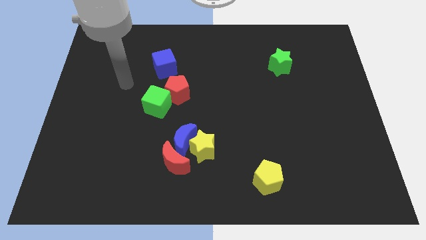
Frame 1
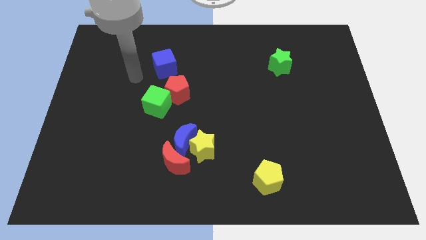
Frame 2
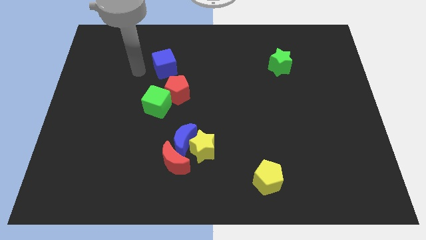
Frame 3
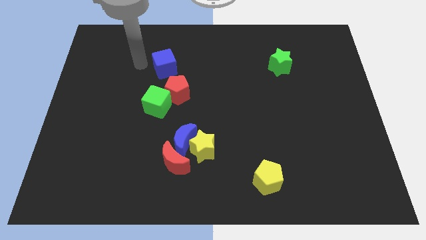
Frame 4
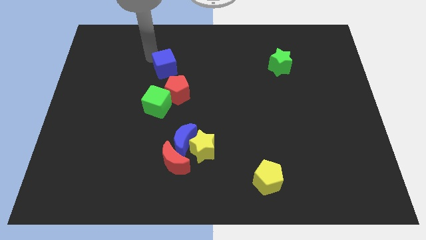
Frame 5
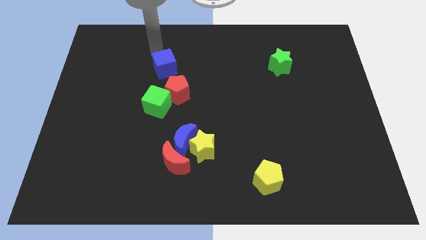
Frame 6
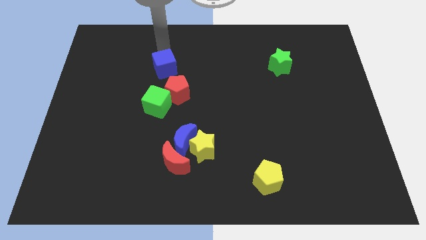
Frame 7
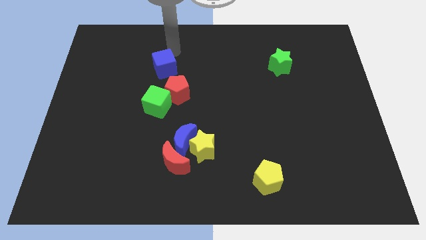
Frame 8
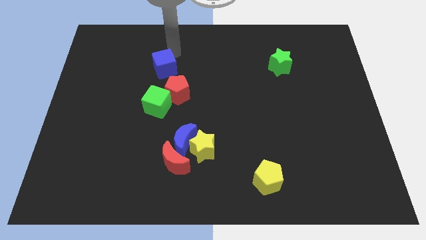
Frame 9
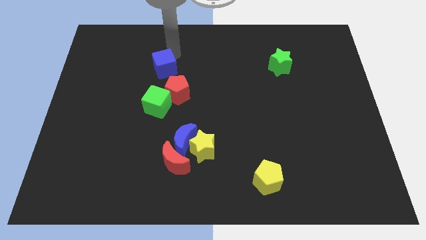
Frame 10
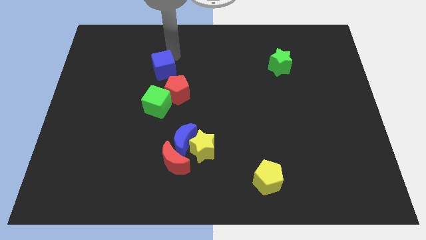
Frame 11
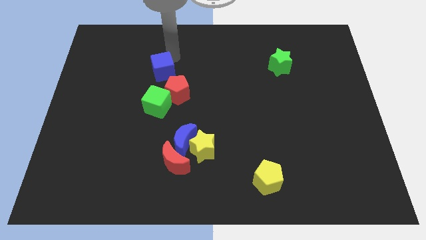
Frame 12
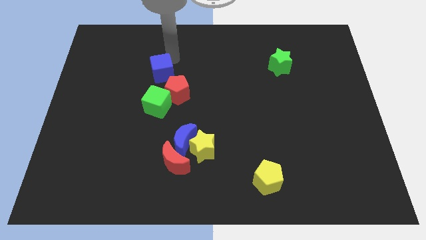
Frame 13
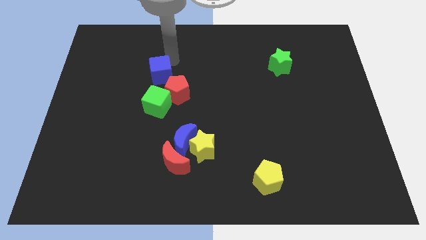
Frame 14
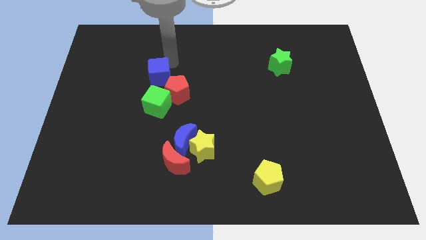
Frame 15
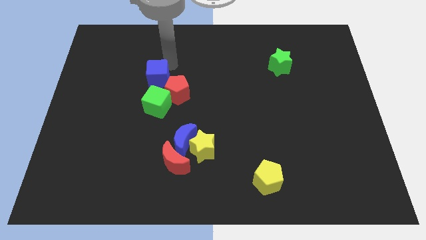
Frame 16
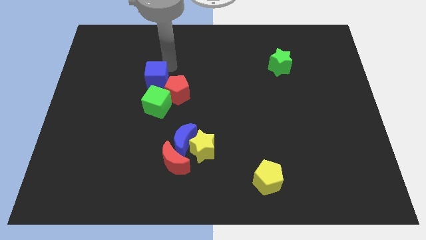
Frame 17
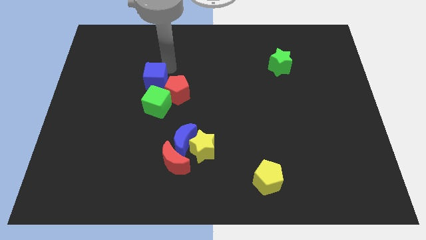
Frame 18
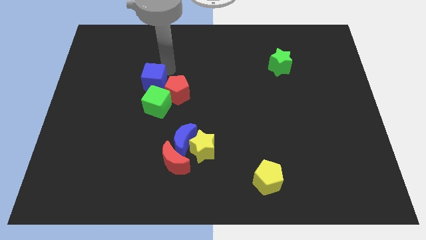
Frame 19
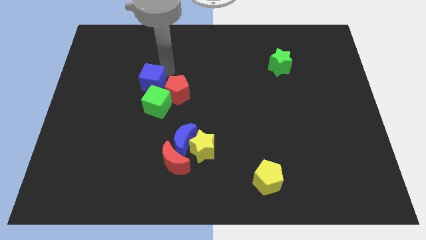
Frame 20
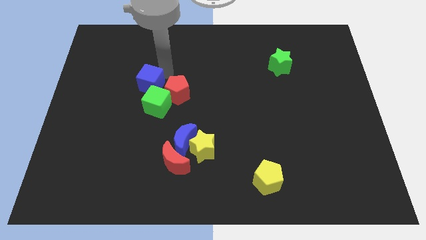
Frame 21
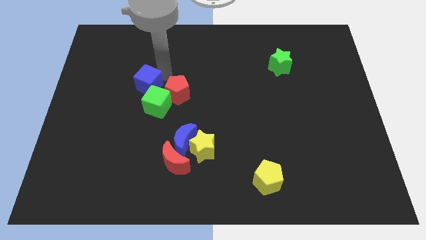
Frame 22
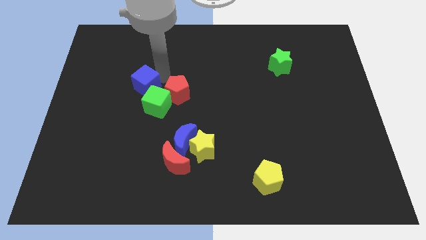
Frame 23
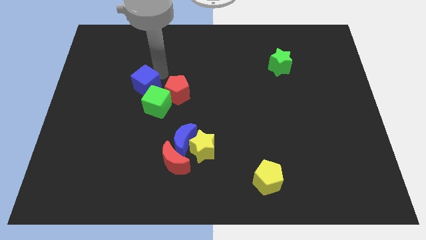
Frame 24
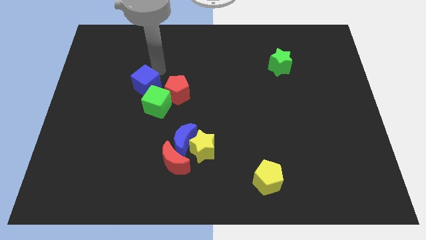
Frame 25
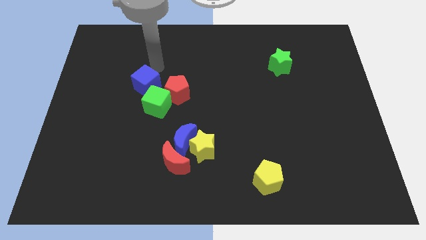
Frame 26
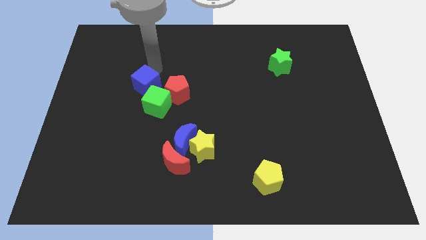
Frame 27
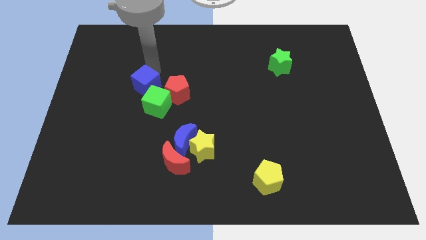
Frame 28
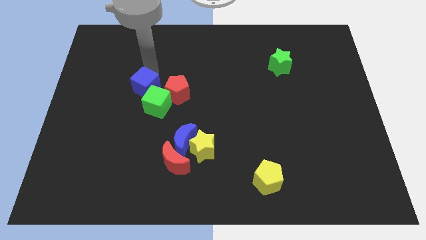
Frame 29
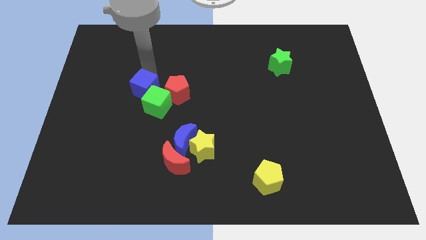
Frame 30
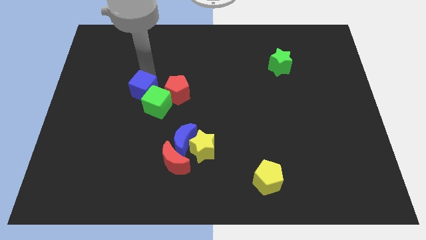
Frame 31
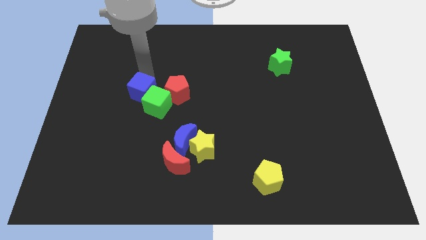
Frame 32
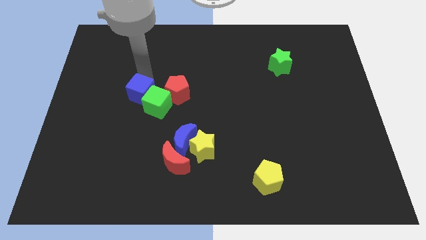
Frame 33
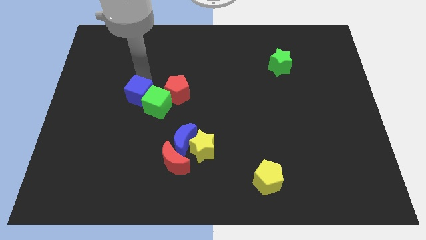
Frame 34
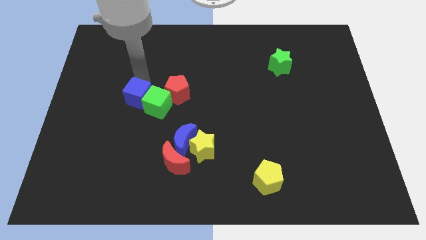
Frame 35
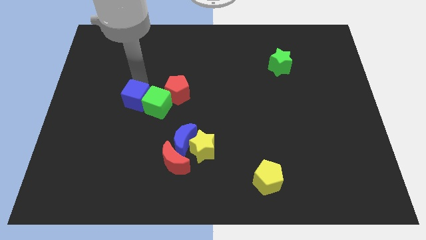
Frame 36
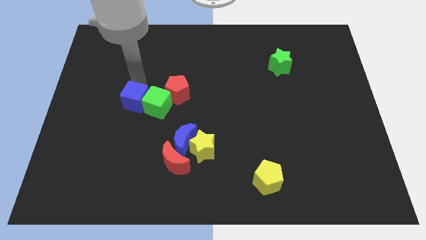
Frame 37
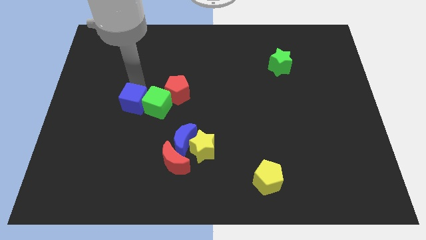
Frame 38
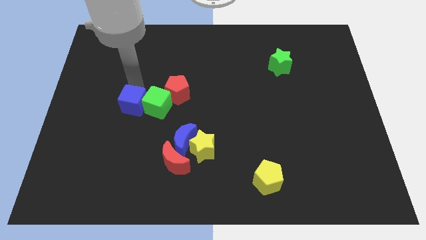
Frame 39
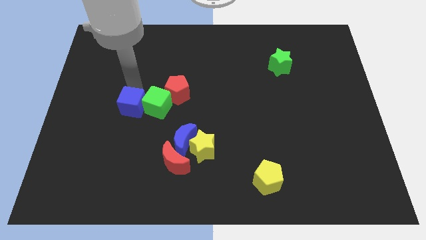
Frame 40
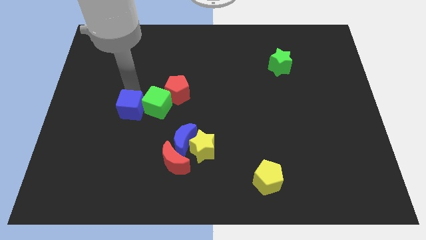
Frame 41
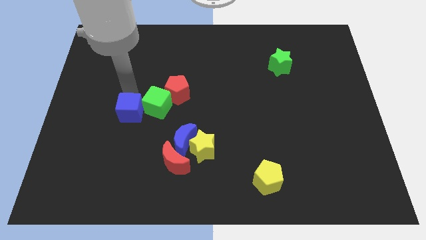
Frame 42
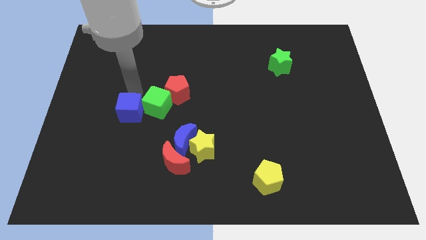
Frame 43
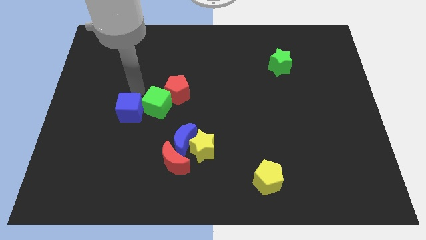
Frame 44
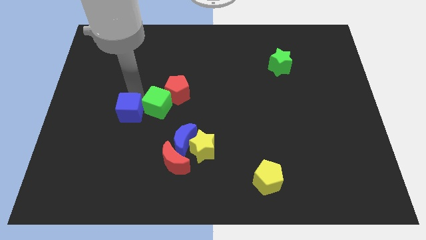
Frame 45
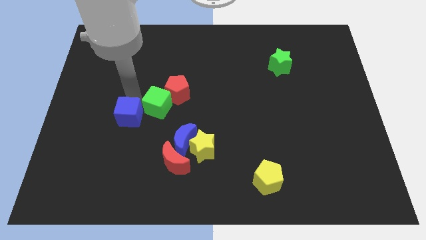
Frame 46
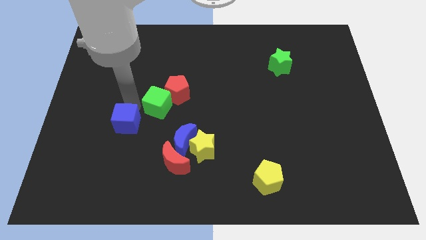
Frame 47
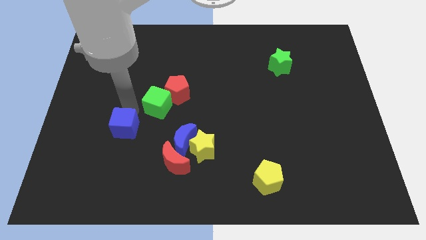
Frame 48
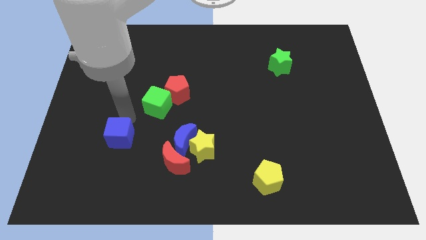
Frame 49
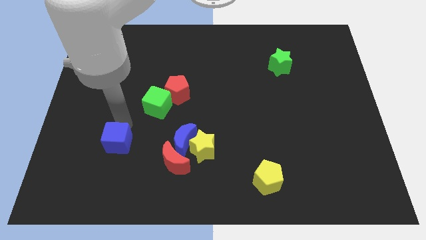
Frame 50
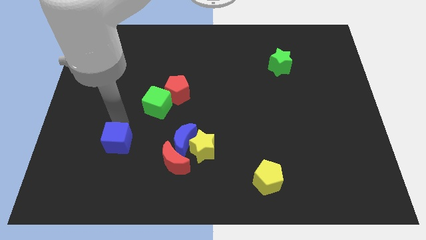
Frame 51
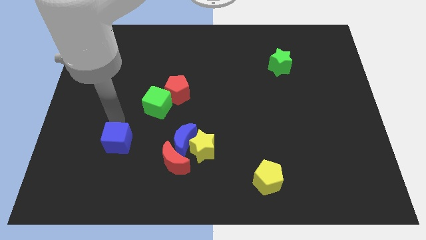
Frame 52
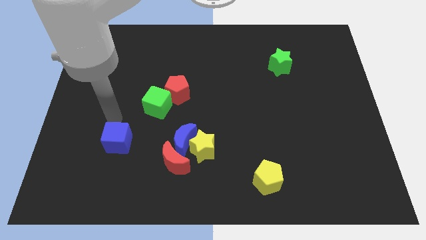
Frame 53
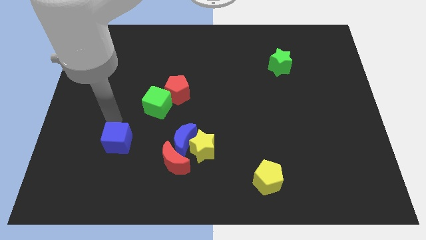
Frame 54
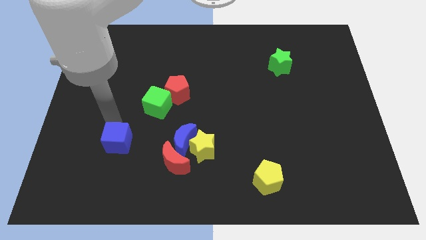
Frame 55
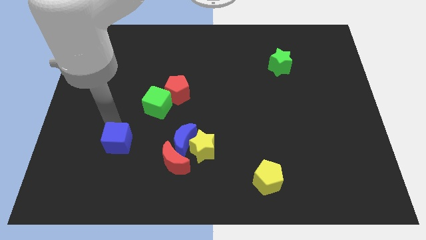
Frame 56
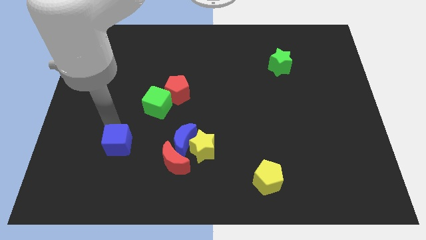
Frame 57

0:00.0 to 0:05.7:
slide the blue cube downwards

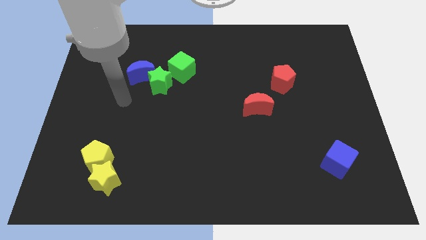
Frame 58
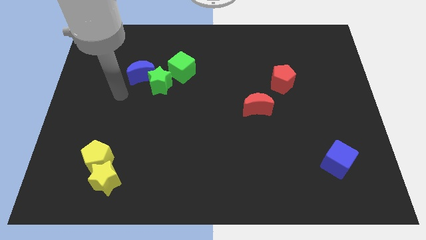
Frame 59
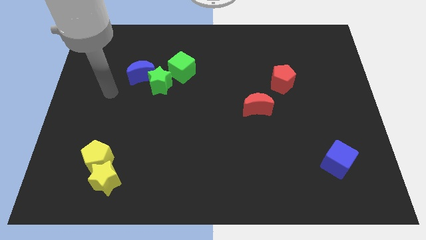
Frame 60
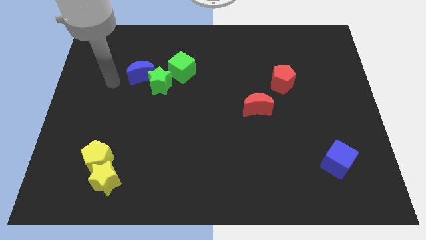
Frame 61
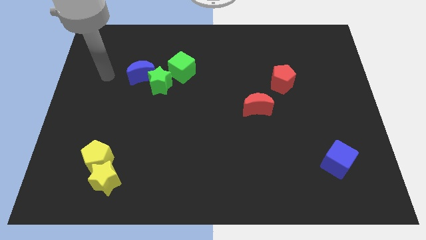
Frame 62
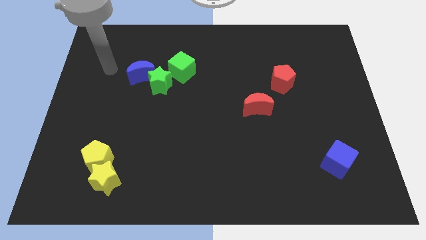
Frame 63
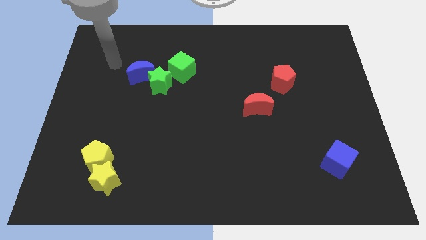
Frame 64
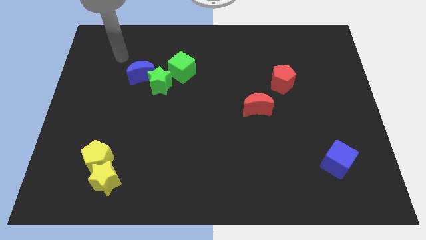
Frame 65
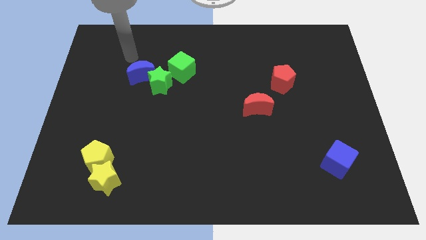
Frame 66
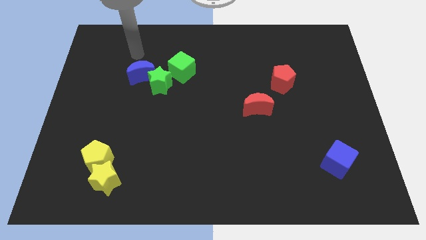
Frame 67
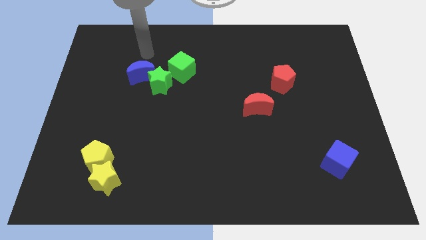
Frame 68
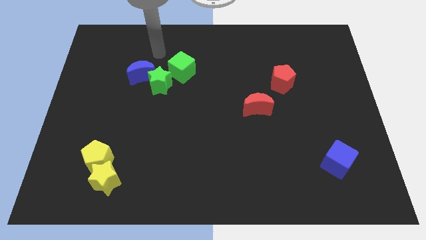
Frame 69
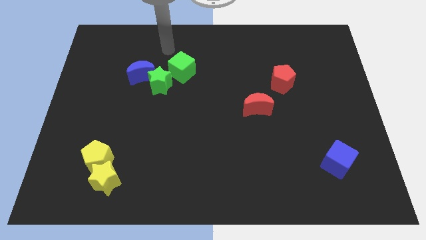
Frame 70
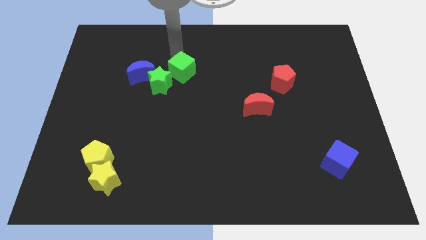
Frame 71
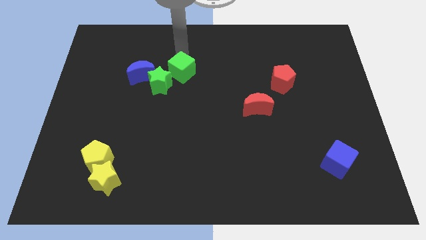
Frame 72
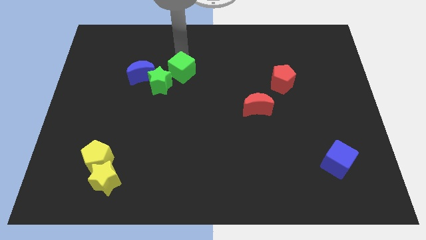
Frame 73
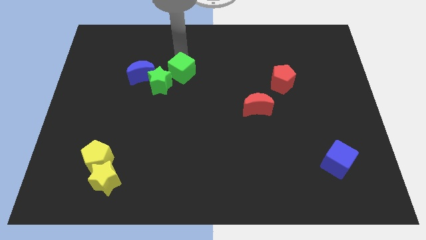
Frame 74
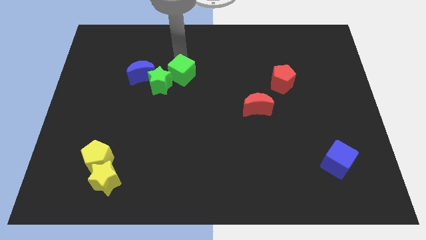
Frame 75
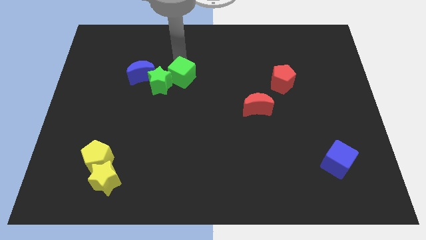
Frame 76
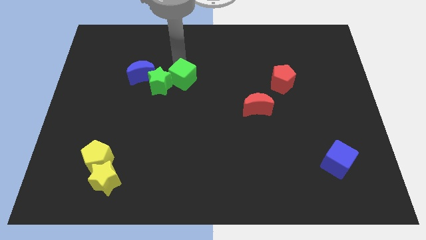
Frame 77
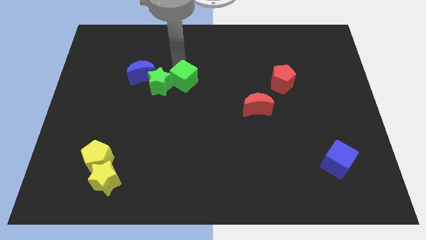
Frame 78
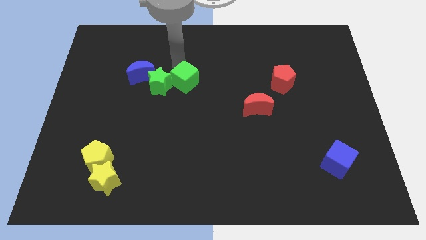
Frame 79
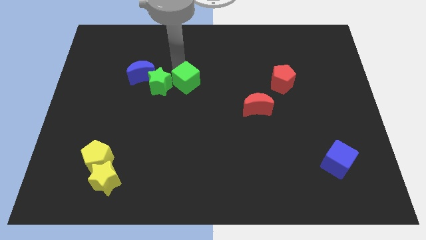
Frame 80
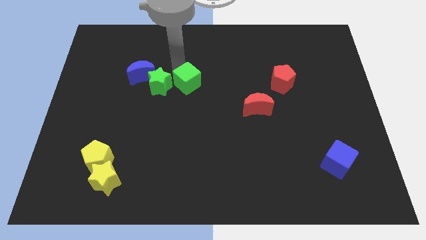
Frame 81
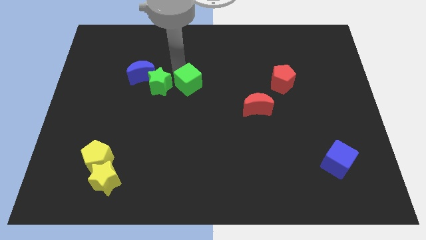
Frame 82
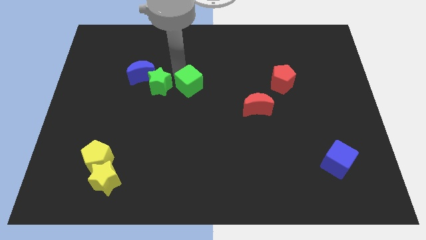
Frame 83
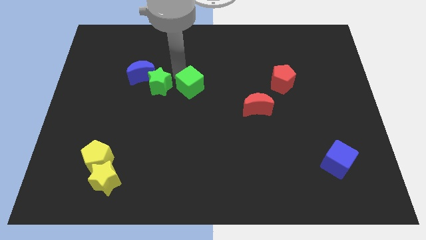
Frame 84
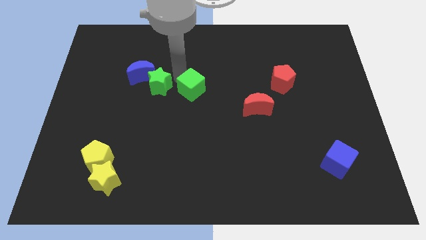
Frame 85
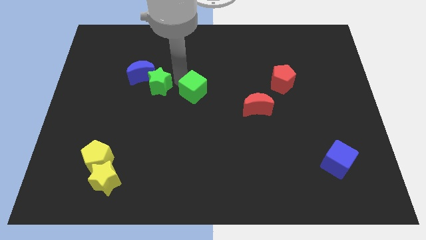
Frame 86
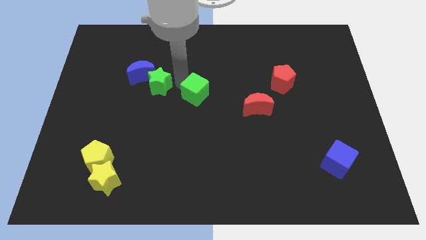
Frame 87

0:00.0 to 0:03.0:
push the green cube down a bit
